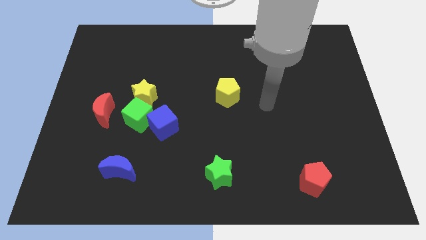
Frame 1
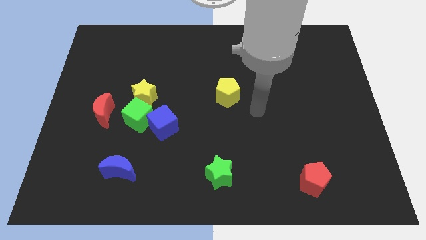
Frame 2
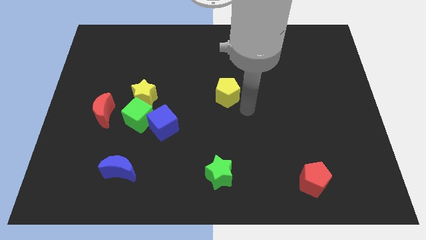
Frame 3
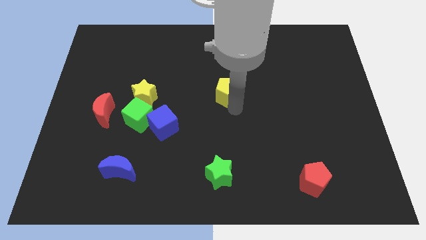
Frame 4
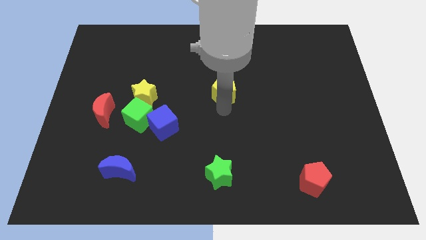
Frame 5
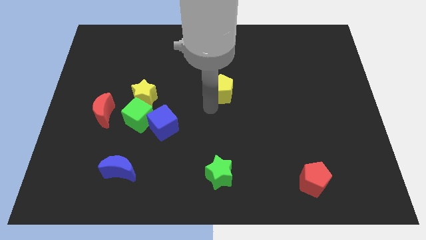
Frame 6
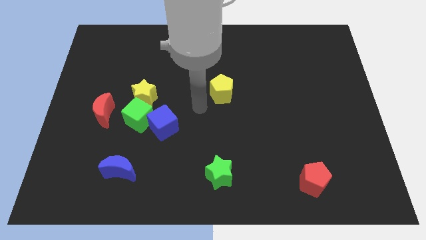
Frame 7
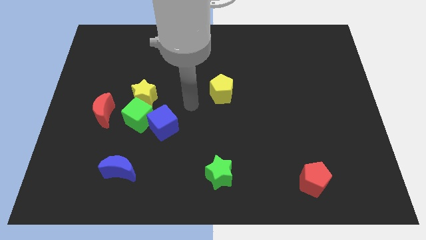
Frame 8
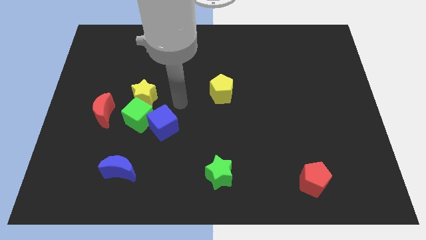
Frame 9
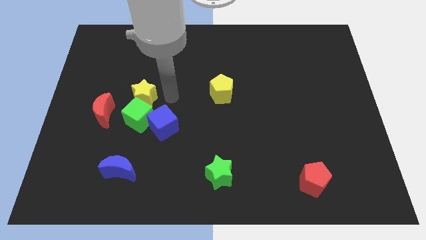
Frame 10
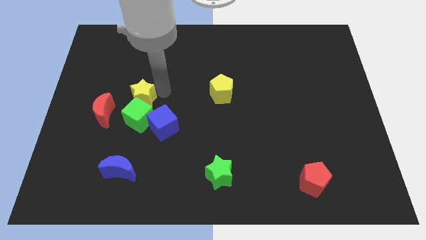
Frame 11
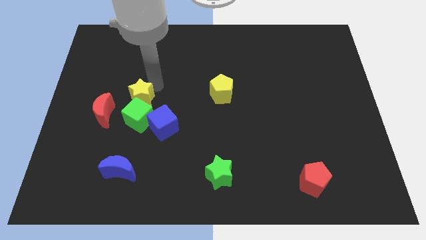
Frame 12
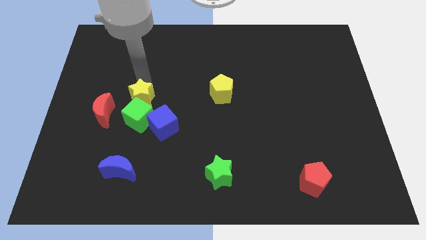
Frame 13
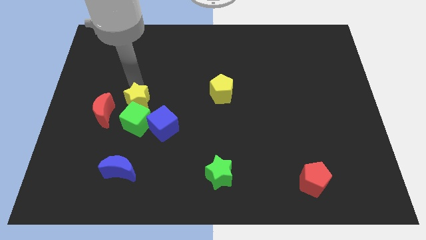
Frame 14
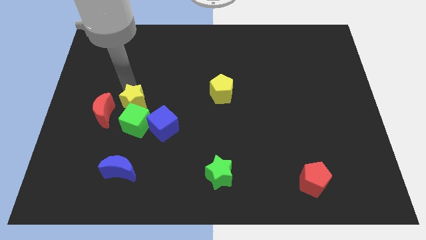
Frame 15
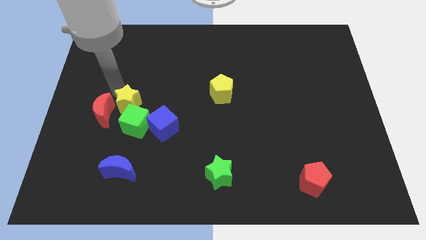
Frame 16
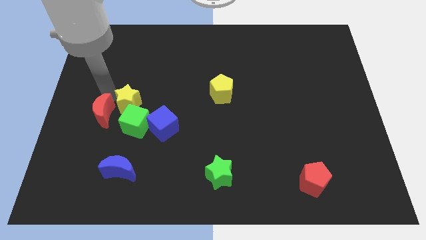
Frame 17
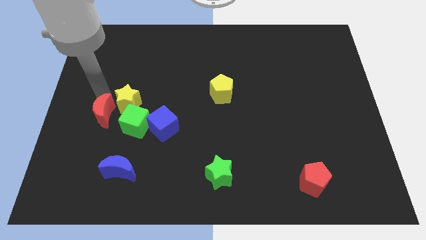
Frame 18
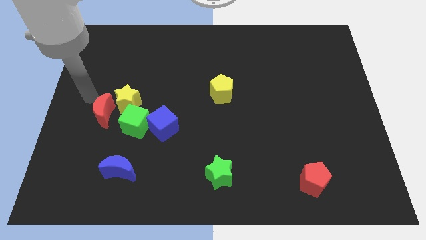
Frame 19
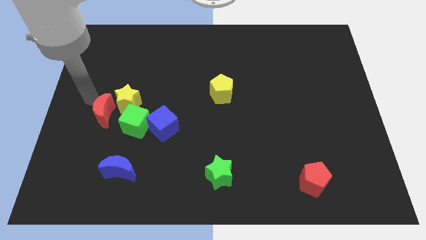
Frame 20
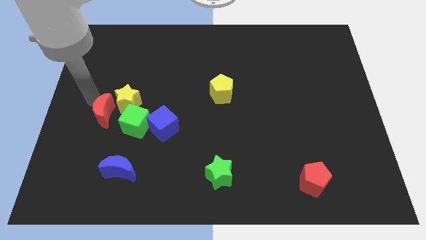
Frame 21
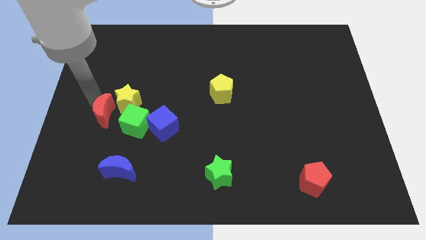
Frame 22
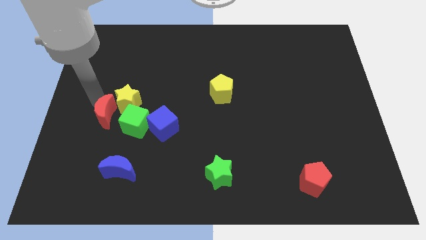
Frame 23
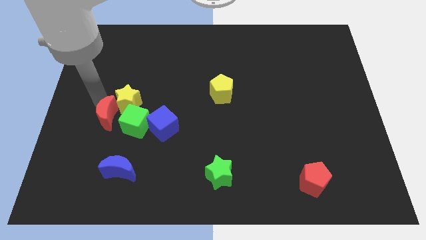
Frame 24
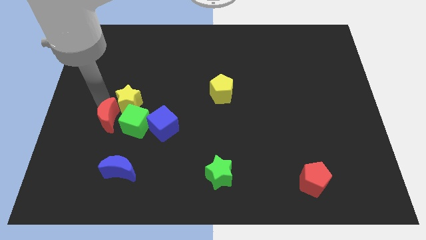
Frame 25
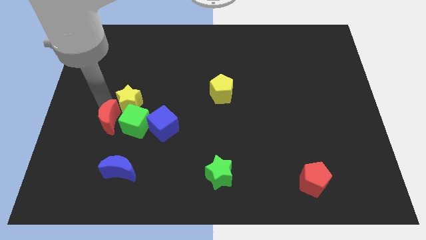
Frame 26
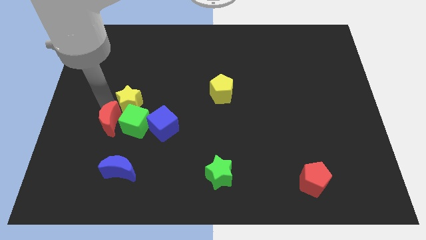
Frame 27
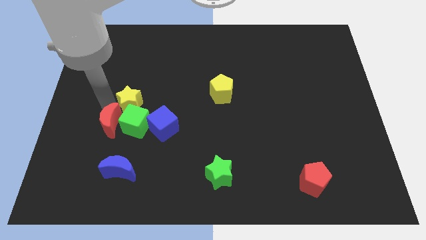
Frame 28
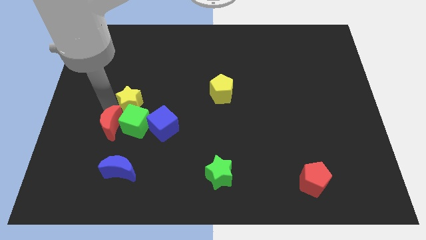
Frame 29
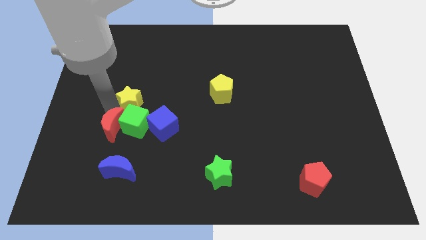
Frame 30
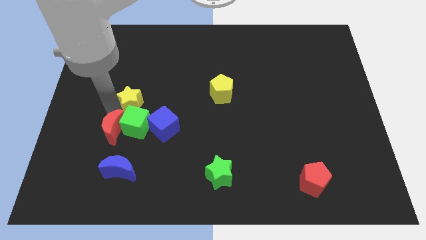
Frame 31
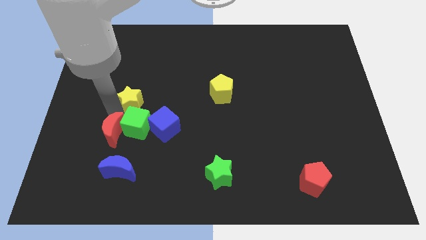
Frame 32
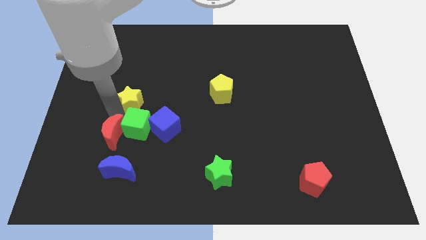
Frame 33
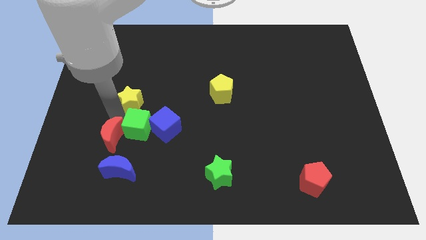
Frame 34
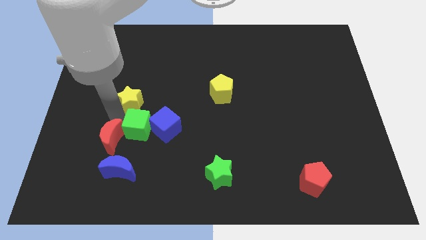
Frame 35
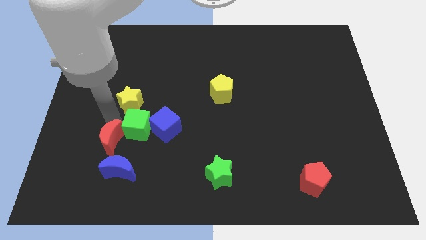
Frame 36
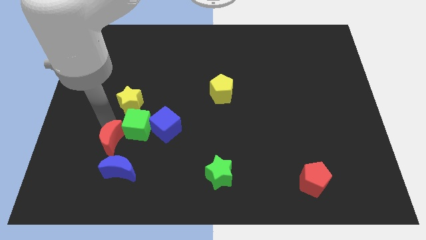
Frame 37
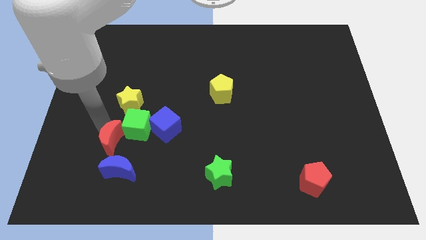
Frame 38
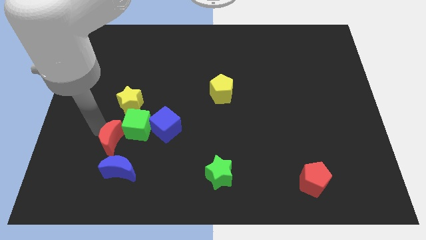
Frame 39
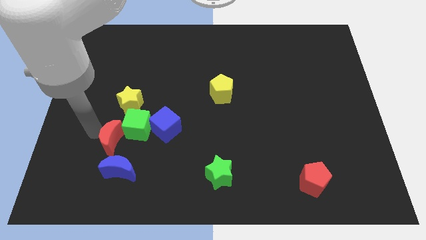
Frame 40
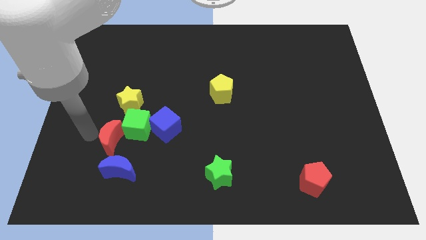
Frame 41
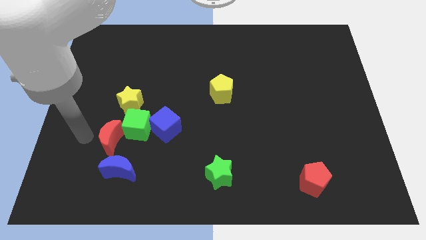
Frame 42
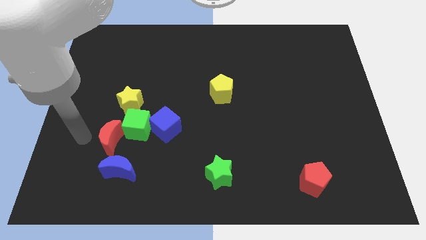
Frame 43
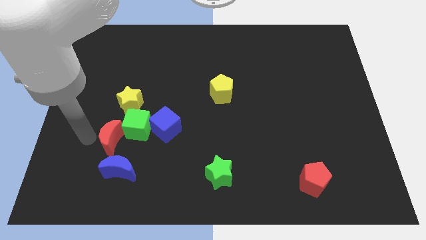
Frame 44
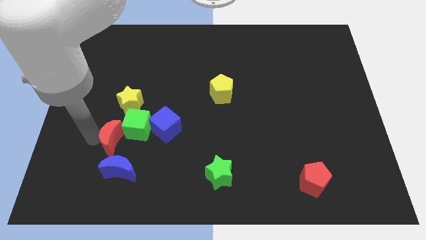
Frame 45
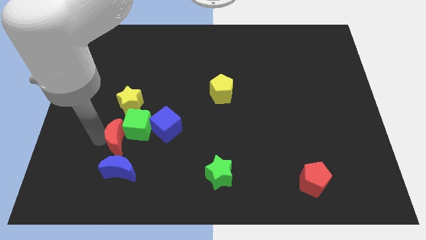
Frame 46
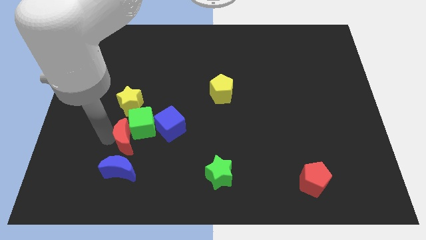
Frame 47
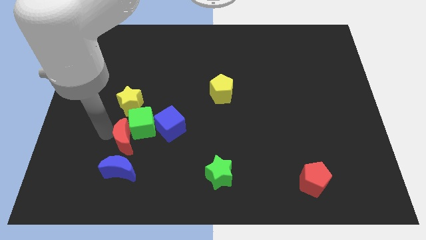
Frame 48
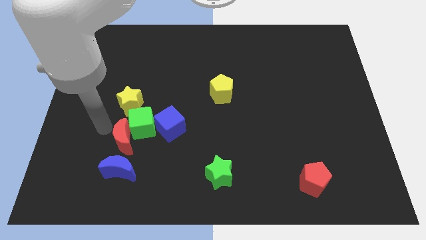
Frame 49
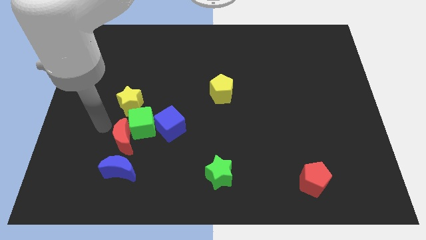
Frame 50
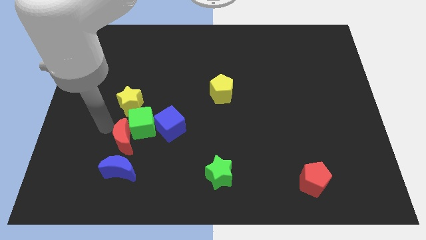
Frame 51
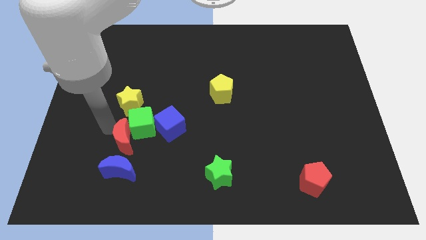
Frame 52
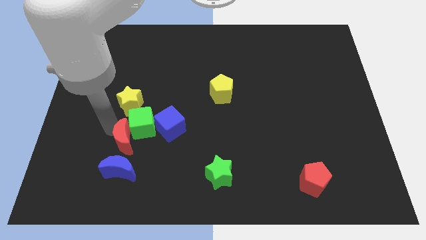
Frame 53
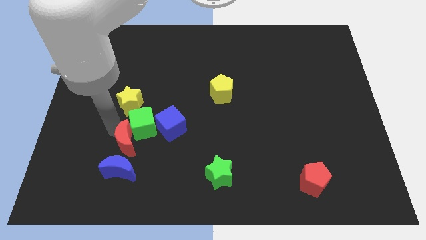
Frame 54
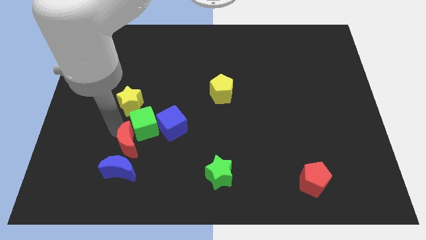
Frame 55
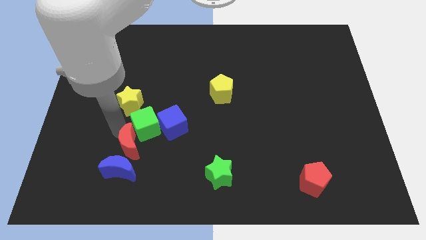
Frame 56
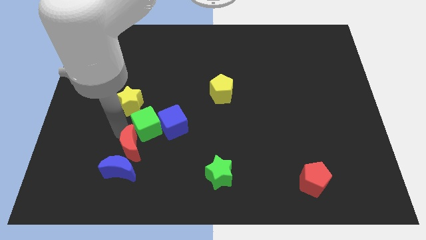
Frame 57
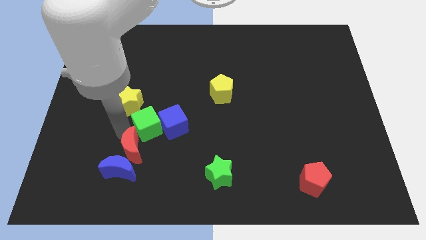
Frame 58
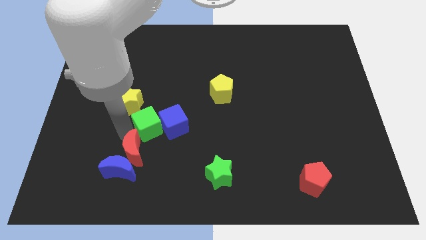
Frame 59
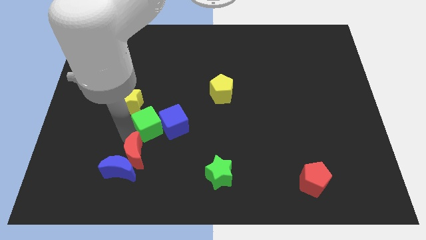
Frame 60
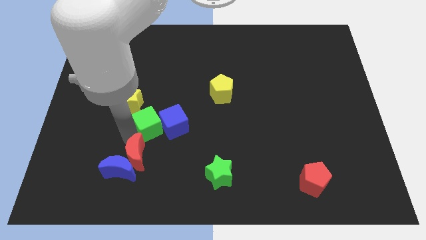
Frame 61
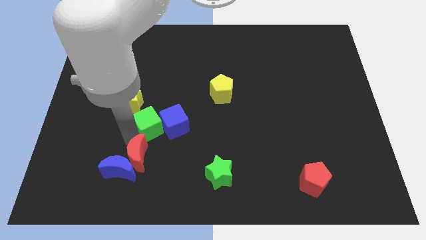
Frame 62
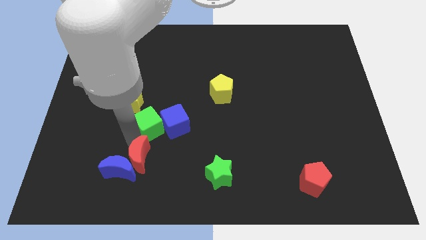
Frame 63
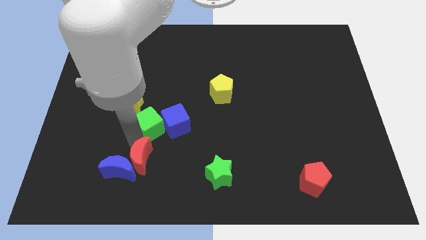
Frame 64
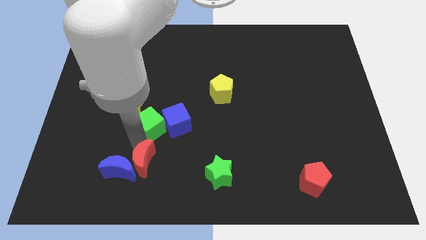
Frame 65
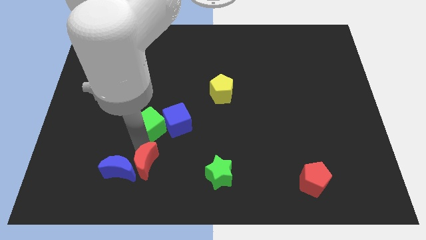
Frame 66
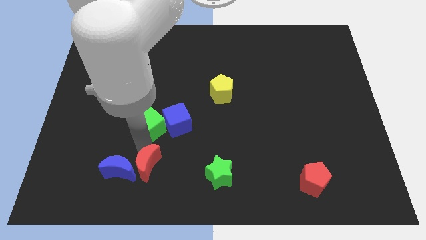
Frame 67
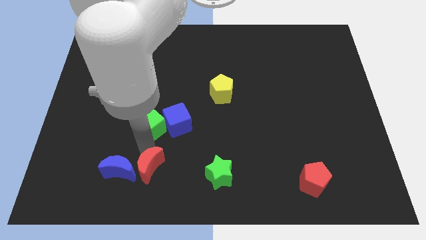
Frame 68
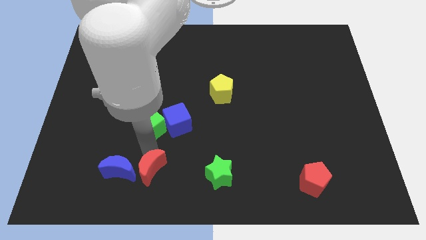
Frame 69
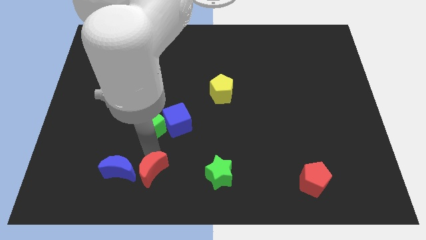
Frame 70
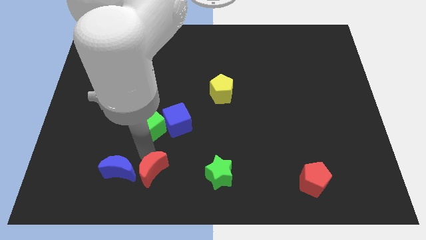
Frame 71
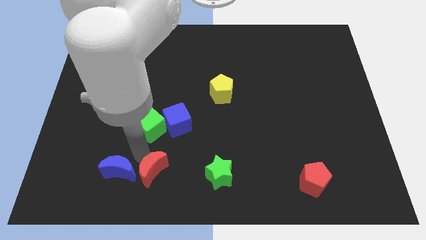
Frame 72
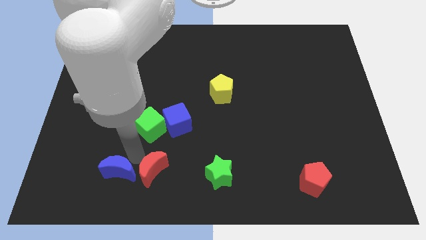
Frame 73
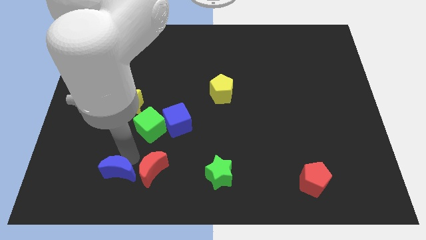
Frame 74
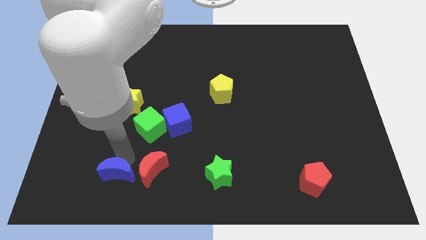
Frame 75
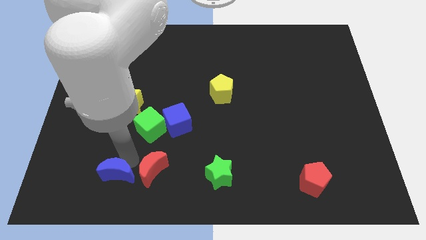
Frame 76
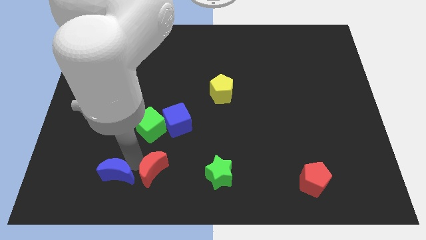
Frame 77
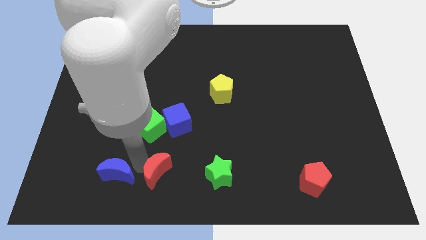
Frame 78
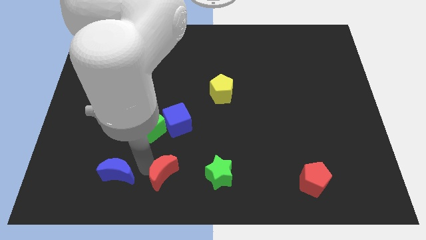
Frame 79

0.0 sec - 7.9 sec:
slide the red moon to the bottom side
